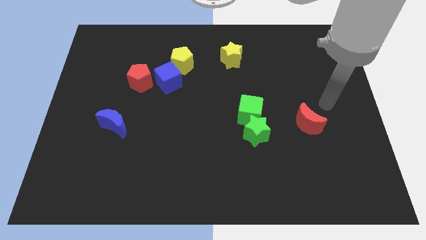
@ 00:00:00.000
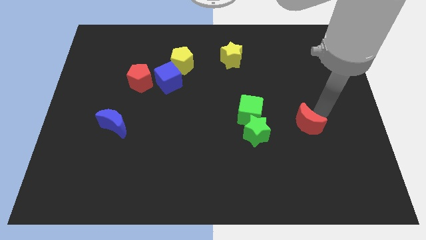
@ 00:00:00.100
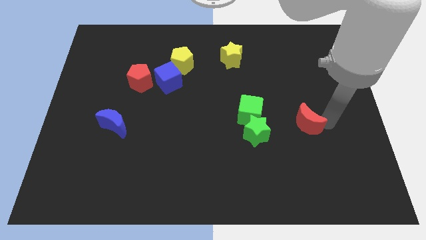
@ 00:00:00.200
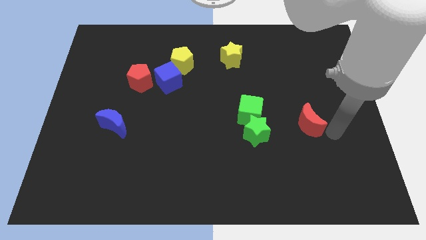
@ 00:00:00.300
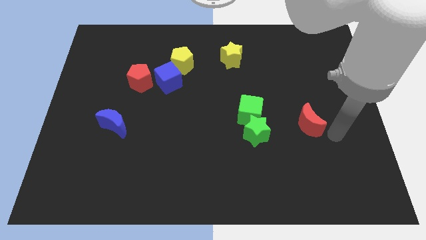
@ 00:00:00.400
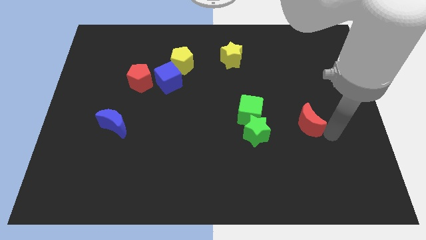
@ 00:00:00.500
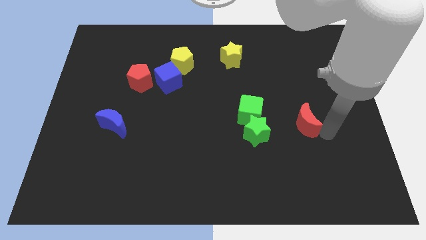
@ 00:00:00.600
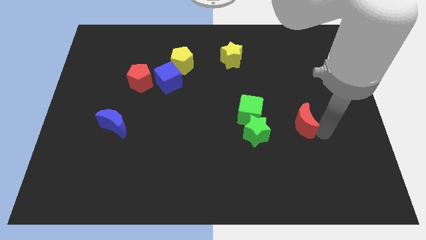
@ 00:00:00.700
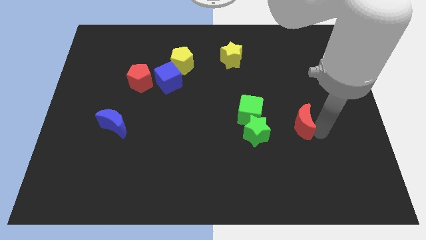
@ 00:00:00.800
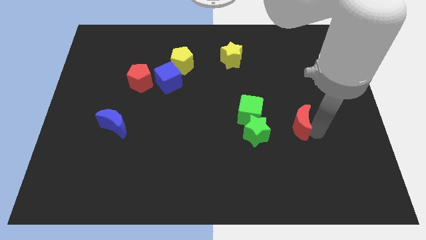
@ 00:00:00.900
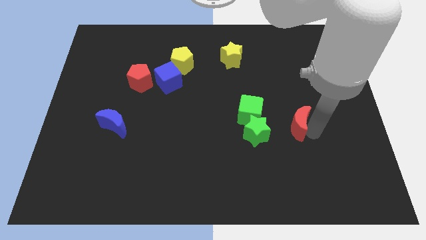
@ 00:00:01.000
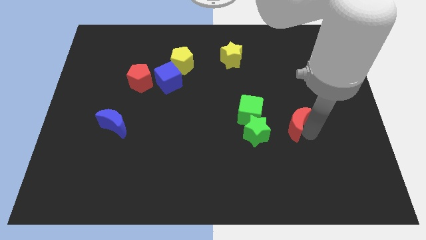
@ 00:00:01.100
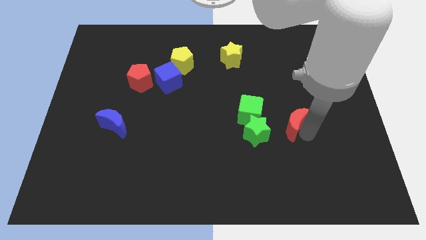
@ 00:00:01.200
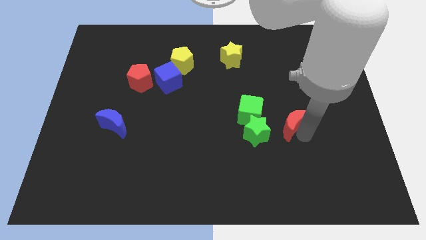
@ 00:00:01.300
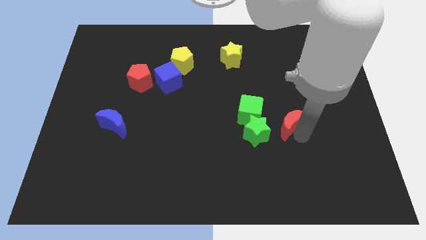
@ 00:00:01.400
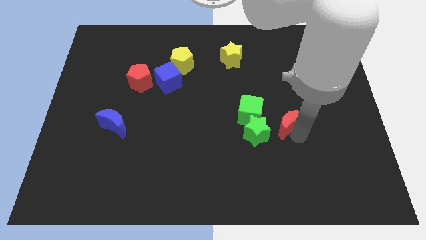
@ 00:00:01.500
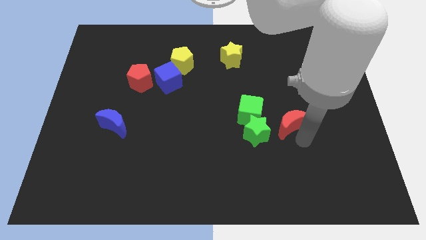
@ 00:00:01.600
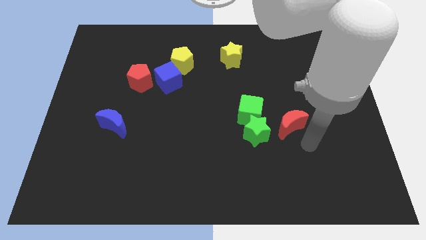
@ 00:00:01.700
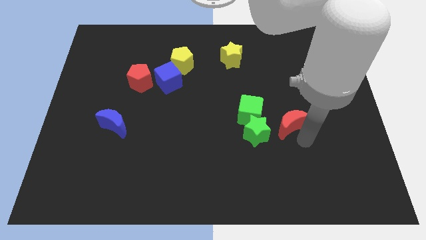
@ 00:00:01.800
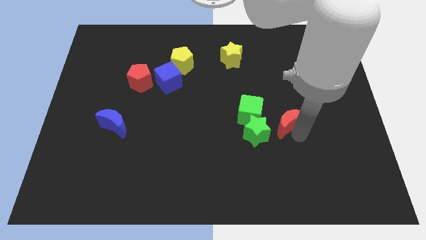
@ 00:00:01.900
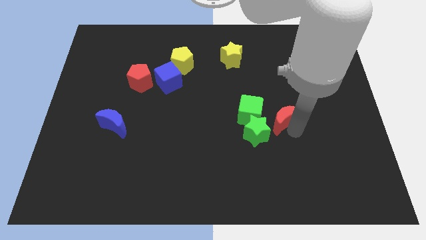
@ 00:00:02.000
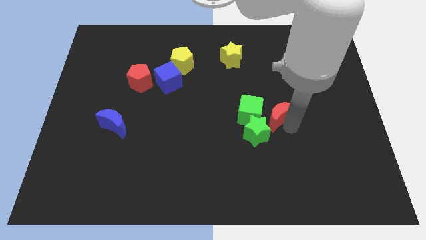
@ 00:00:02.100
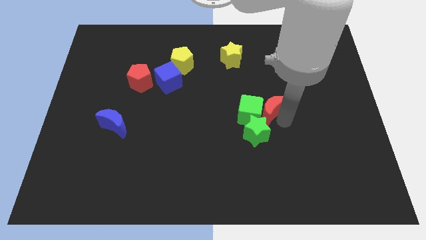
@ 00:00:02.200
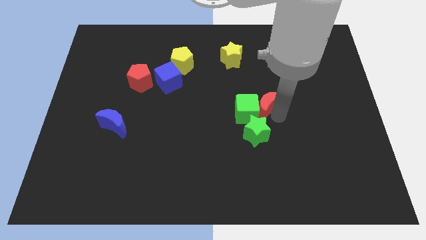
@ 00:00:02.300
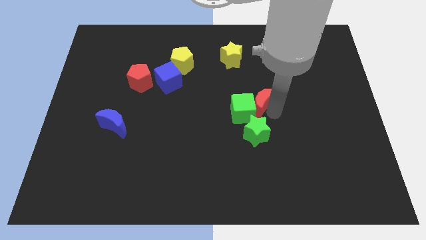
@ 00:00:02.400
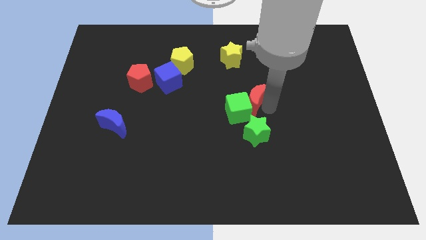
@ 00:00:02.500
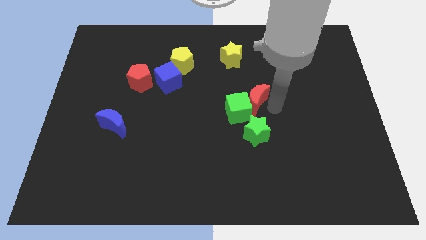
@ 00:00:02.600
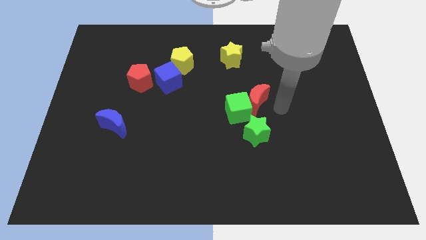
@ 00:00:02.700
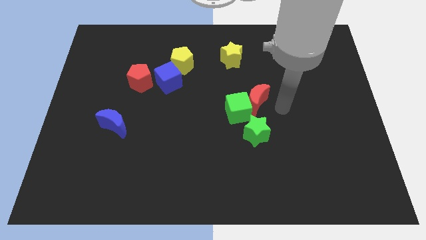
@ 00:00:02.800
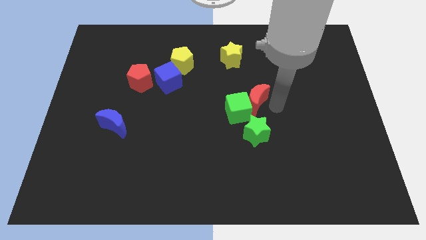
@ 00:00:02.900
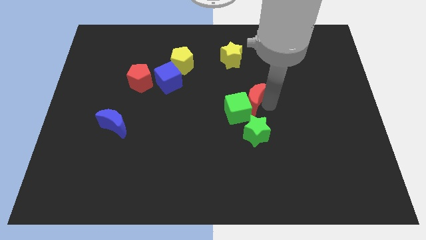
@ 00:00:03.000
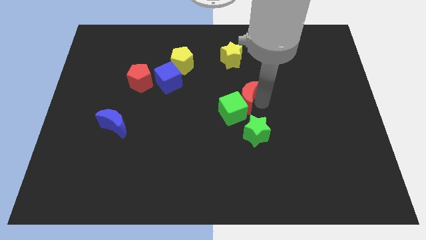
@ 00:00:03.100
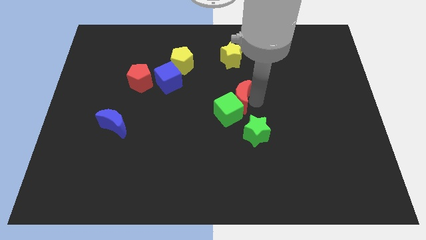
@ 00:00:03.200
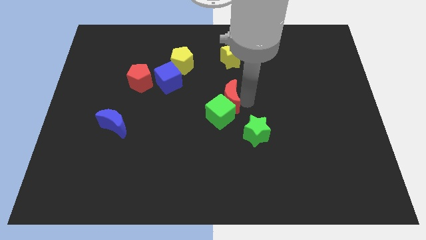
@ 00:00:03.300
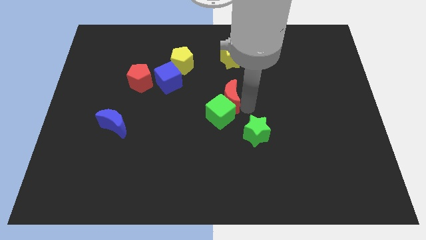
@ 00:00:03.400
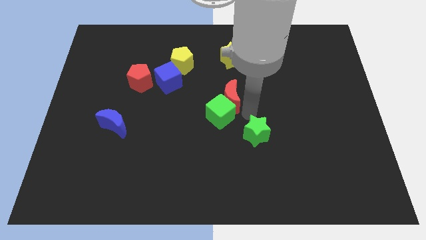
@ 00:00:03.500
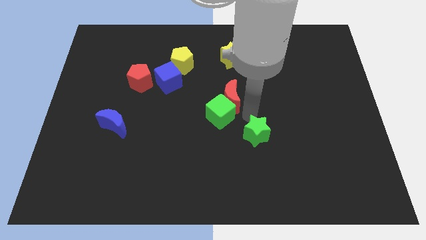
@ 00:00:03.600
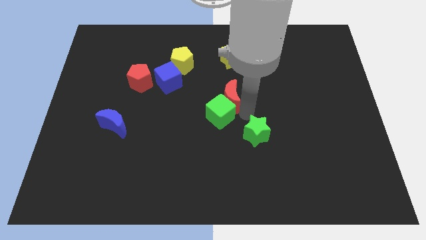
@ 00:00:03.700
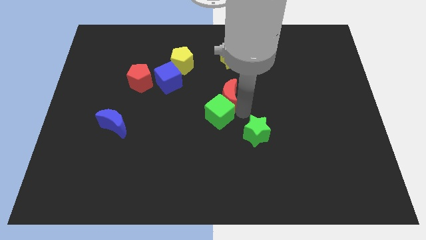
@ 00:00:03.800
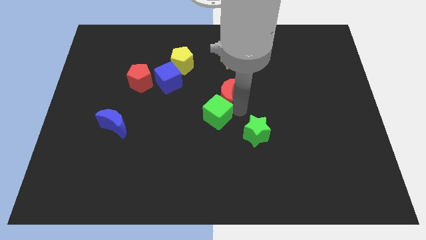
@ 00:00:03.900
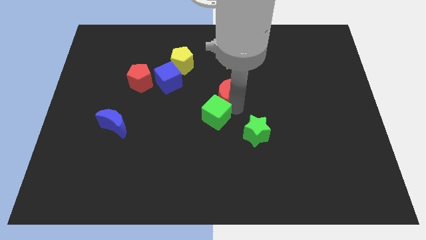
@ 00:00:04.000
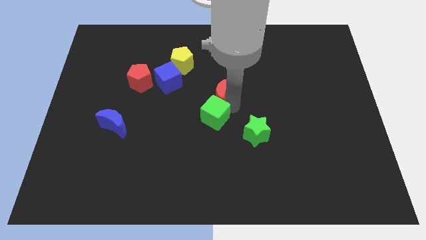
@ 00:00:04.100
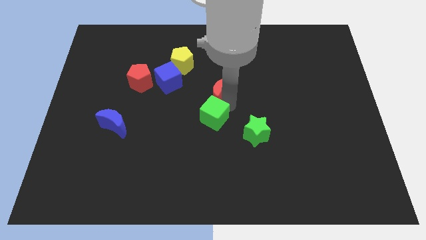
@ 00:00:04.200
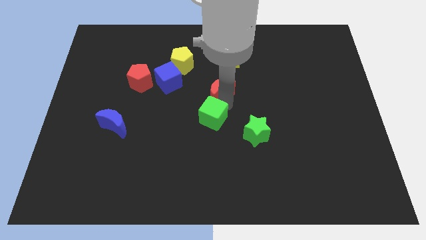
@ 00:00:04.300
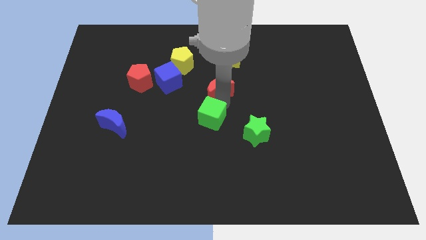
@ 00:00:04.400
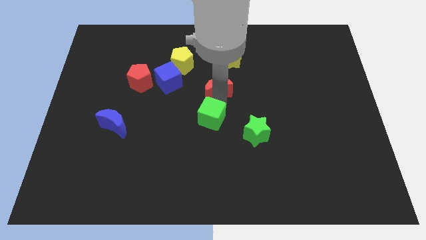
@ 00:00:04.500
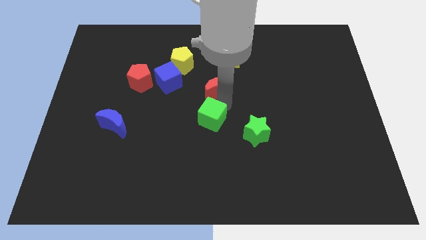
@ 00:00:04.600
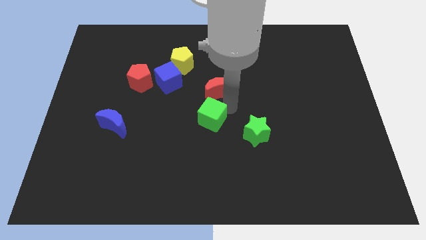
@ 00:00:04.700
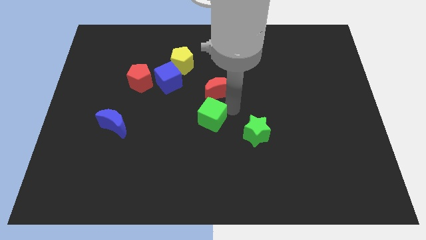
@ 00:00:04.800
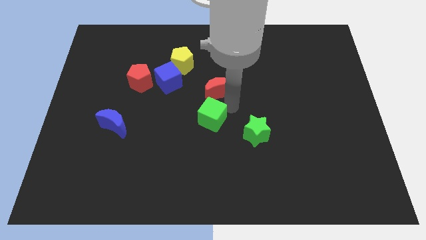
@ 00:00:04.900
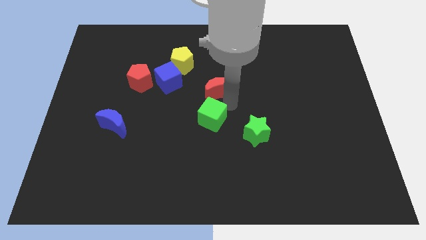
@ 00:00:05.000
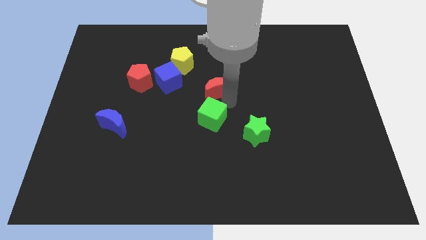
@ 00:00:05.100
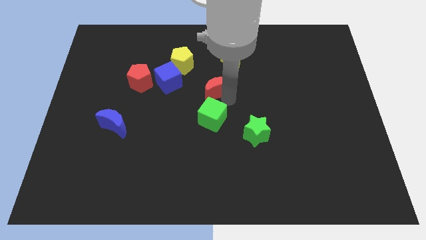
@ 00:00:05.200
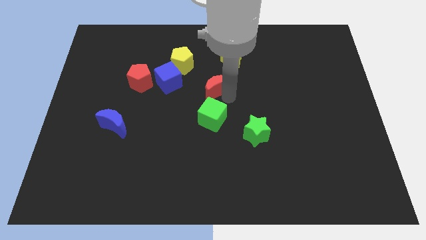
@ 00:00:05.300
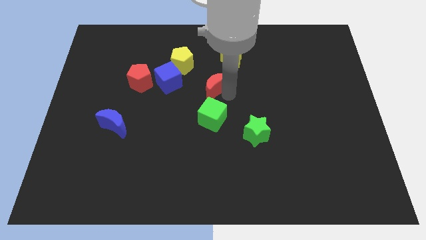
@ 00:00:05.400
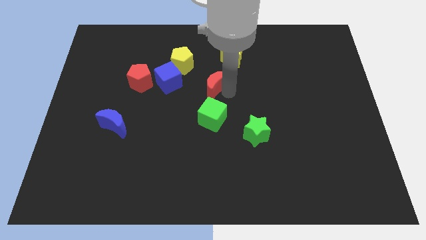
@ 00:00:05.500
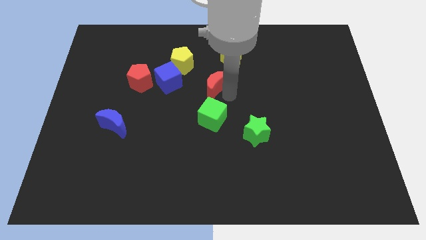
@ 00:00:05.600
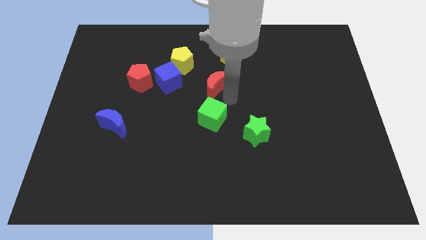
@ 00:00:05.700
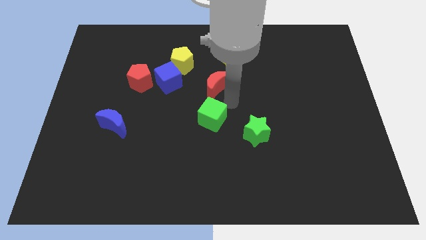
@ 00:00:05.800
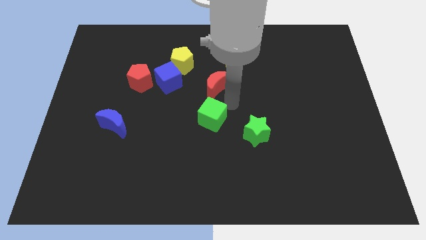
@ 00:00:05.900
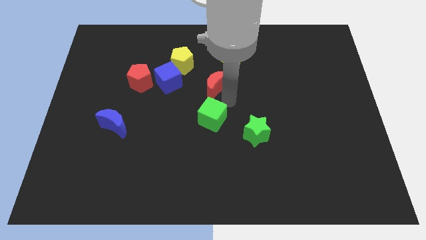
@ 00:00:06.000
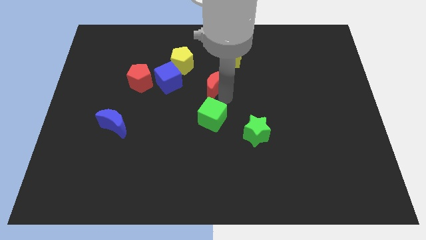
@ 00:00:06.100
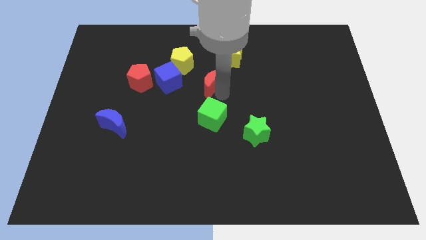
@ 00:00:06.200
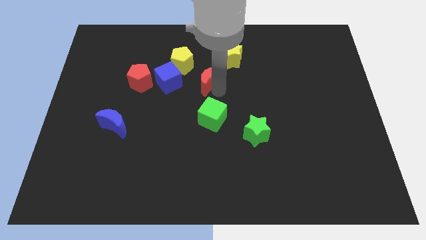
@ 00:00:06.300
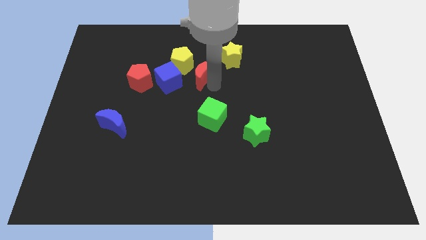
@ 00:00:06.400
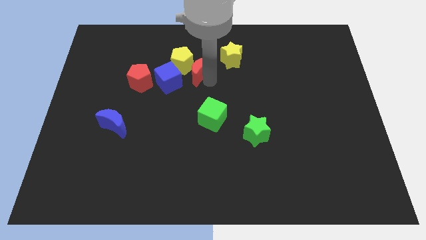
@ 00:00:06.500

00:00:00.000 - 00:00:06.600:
move the red moon to the yellow pentagon
